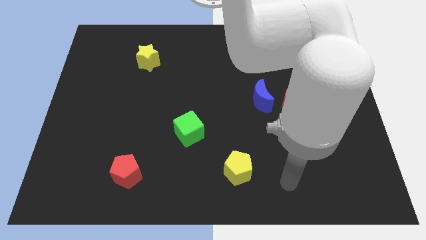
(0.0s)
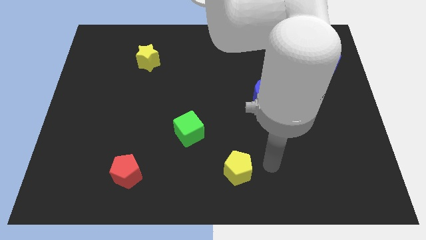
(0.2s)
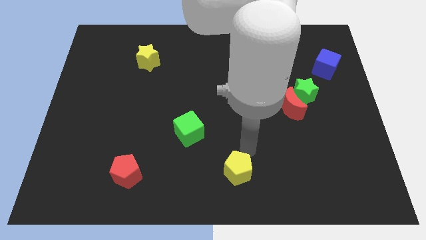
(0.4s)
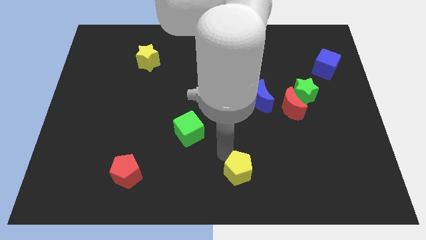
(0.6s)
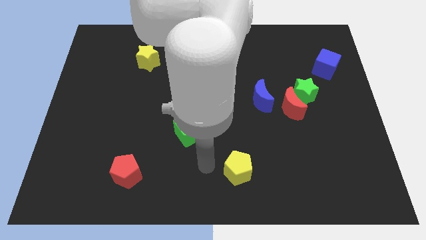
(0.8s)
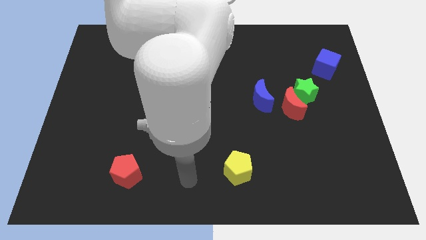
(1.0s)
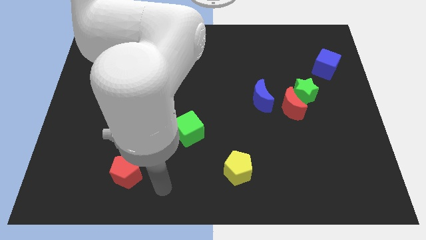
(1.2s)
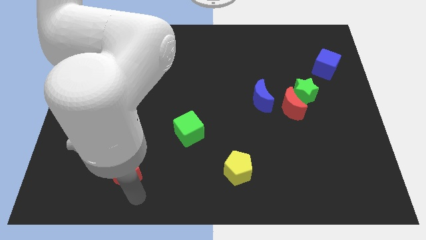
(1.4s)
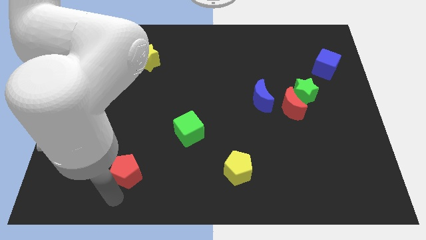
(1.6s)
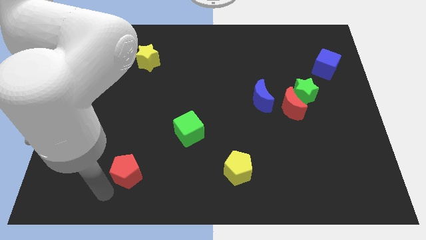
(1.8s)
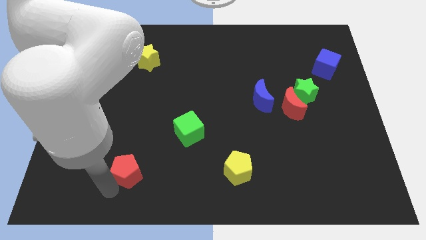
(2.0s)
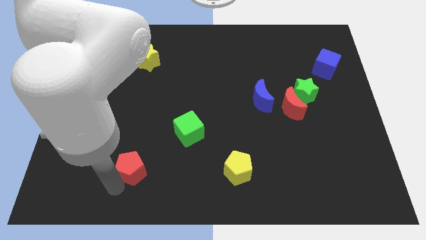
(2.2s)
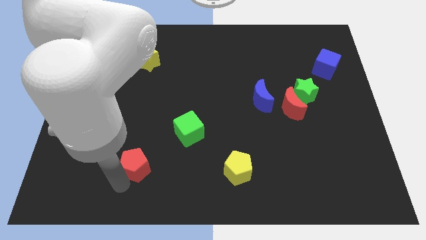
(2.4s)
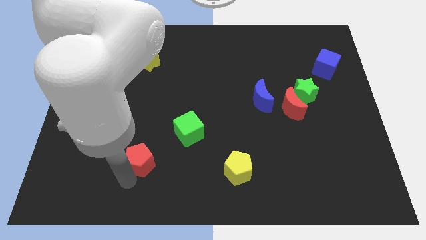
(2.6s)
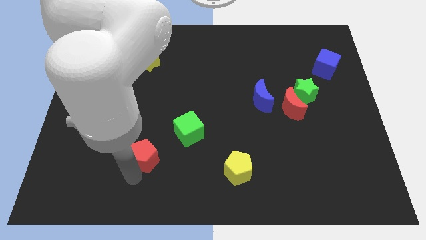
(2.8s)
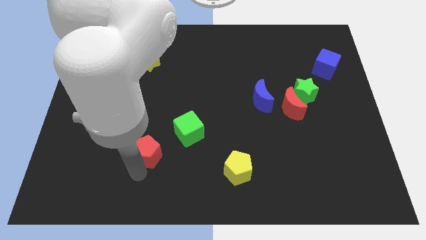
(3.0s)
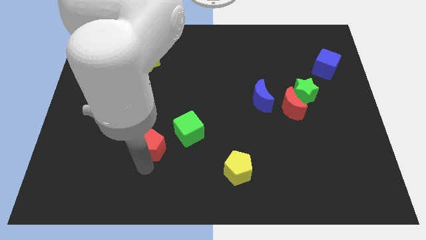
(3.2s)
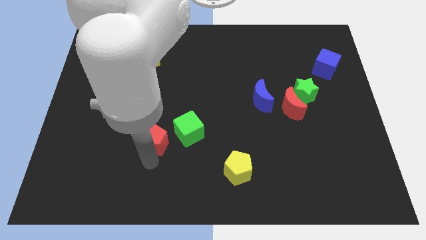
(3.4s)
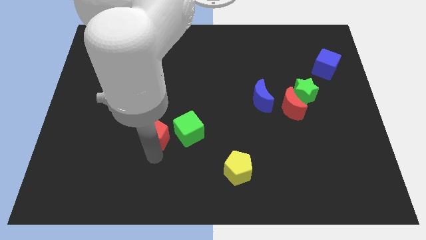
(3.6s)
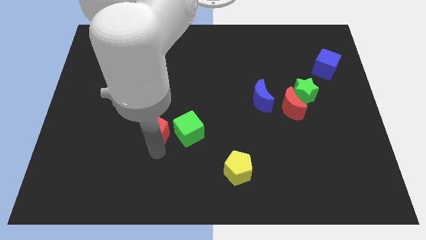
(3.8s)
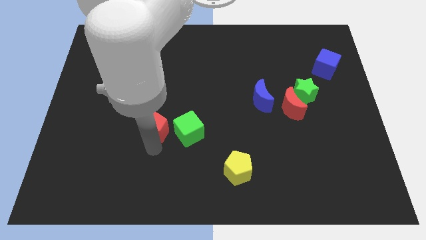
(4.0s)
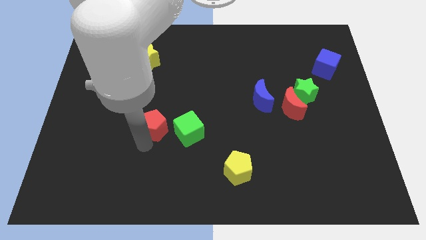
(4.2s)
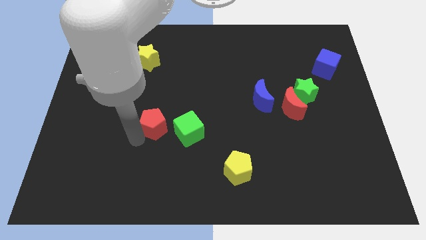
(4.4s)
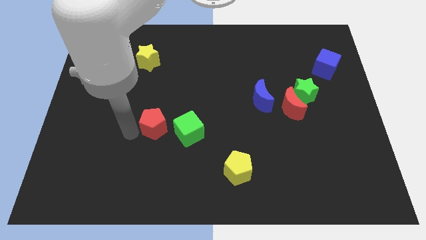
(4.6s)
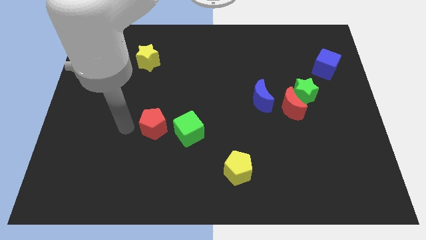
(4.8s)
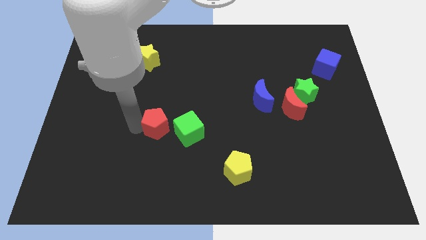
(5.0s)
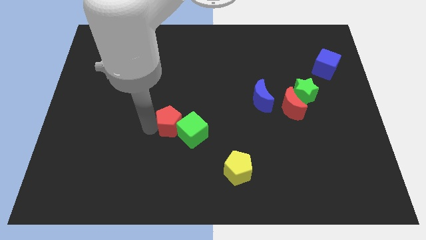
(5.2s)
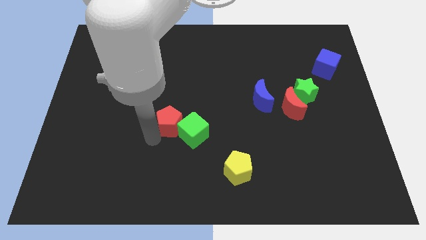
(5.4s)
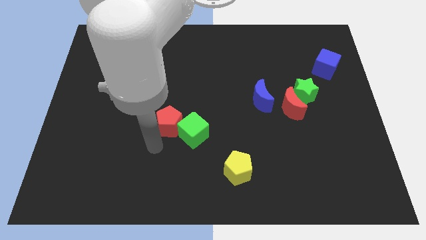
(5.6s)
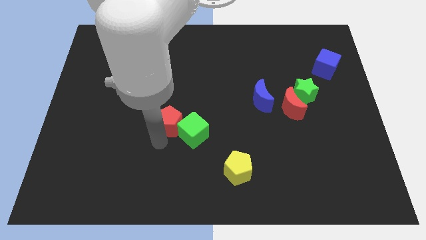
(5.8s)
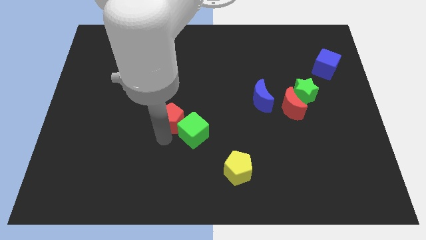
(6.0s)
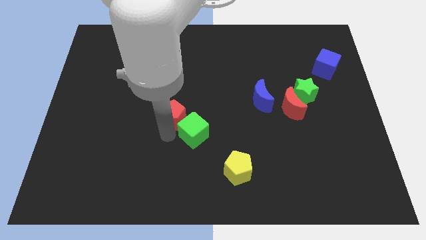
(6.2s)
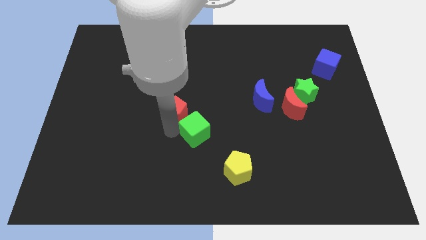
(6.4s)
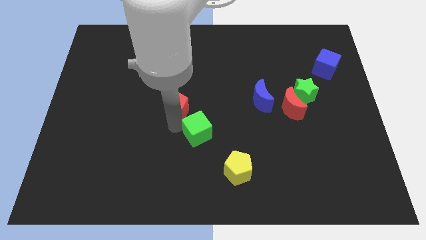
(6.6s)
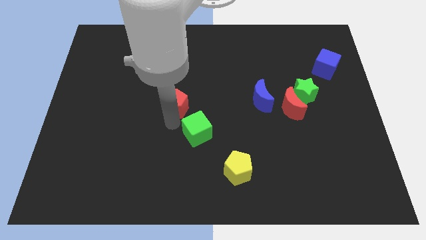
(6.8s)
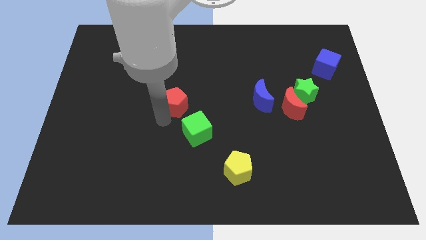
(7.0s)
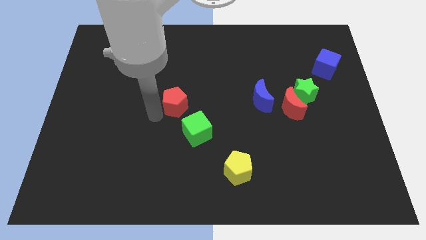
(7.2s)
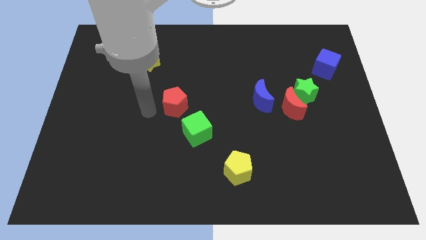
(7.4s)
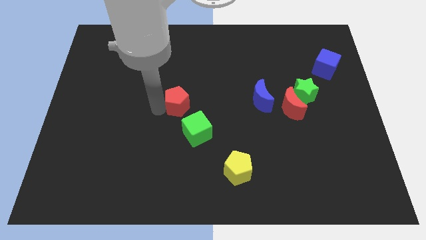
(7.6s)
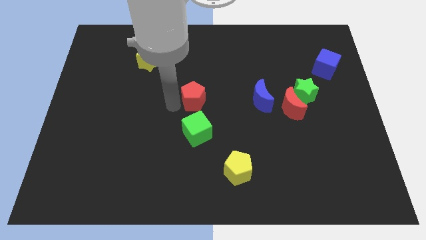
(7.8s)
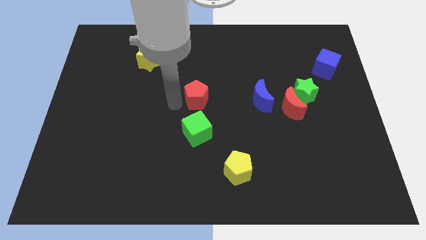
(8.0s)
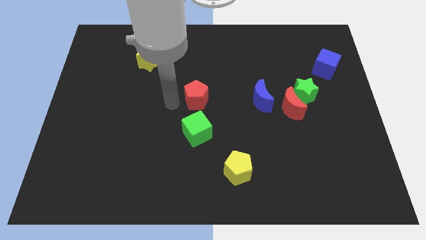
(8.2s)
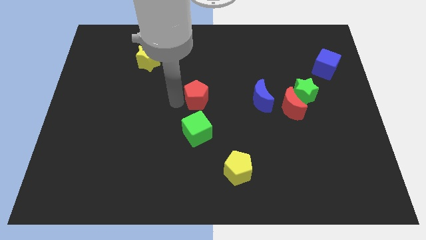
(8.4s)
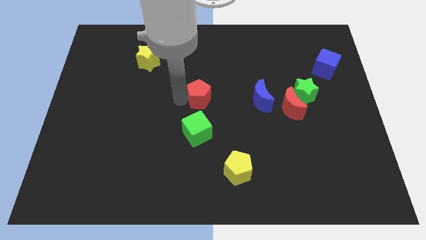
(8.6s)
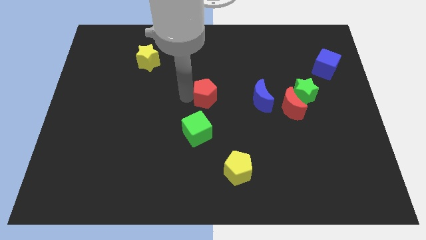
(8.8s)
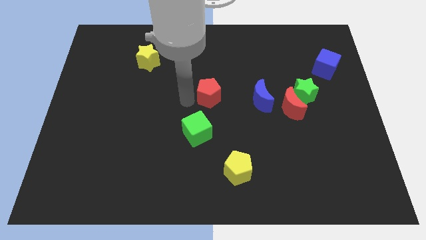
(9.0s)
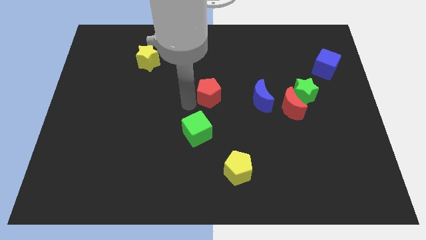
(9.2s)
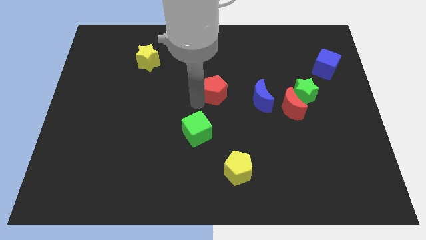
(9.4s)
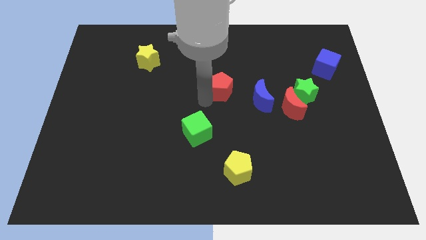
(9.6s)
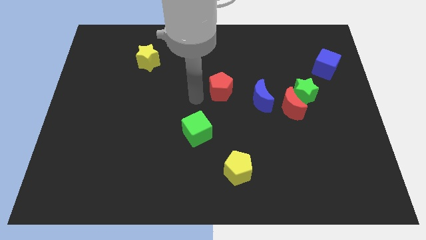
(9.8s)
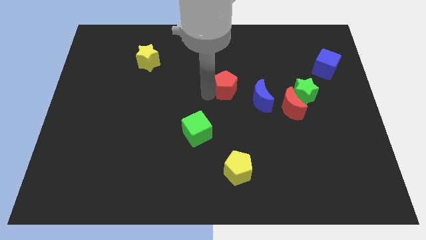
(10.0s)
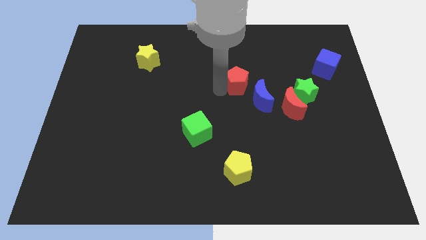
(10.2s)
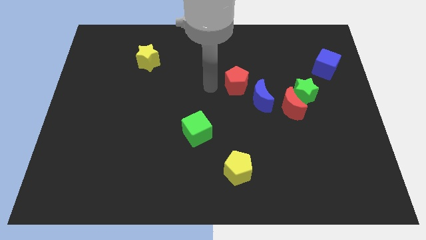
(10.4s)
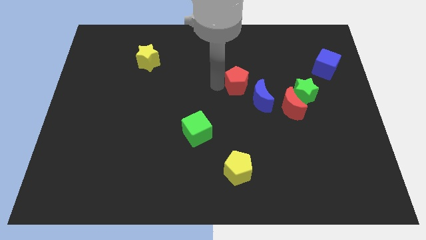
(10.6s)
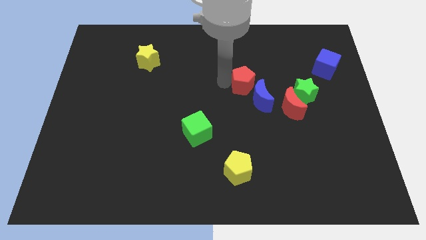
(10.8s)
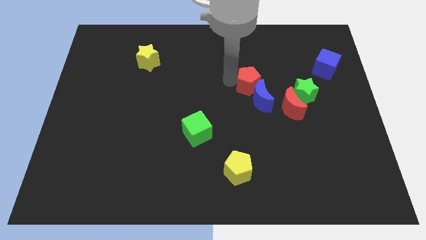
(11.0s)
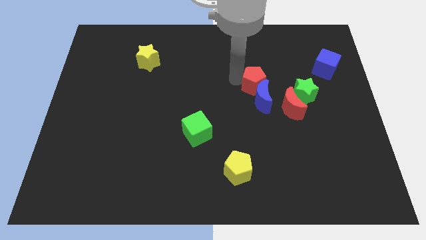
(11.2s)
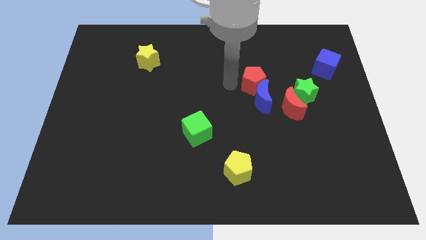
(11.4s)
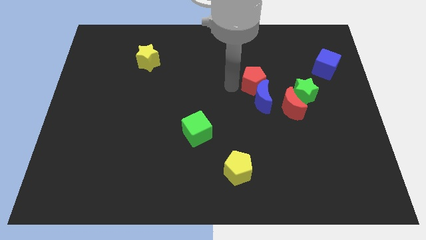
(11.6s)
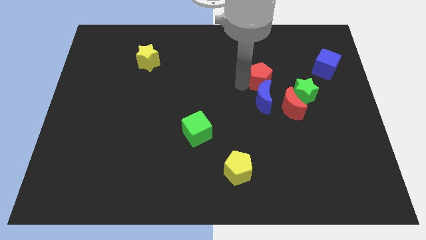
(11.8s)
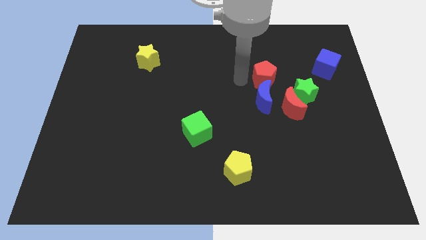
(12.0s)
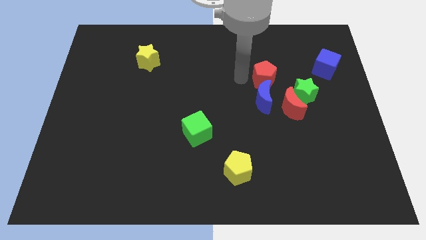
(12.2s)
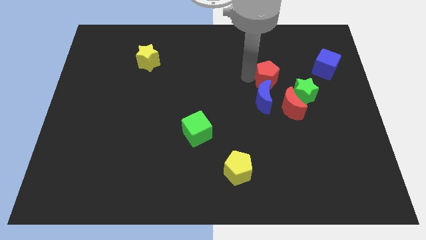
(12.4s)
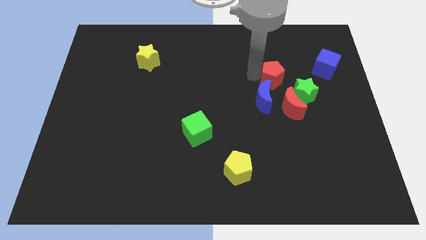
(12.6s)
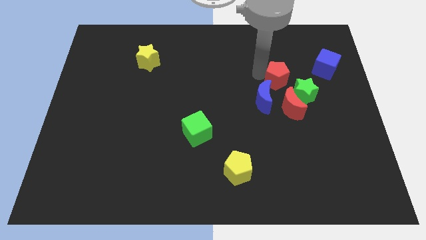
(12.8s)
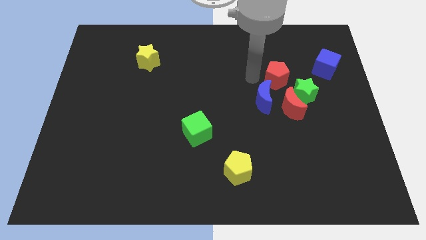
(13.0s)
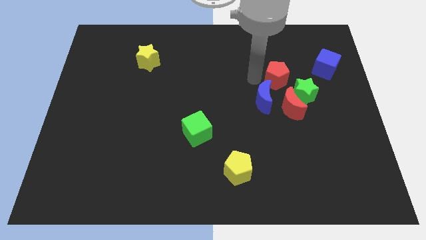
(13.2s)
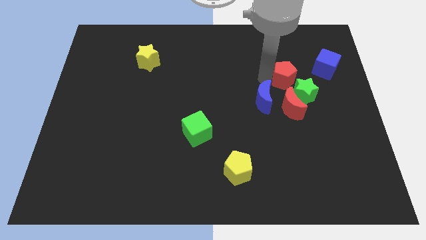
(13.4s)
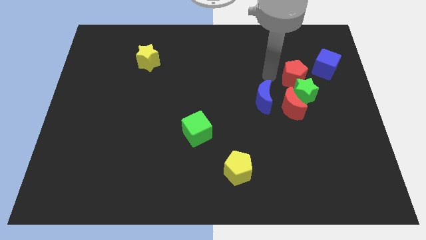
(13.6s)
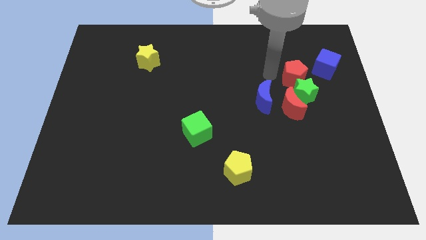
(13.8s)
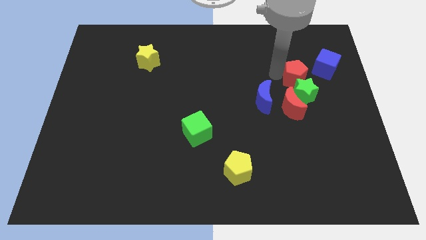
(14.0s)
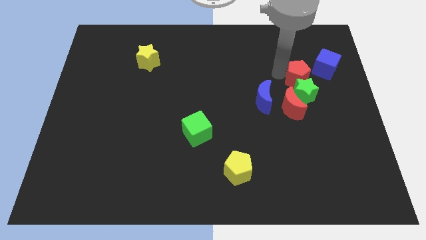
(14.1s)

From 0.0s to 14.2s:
put the red pentagon to the top right side of the green star
